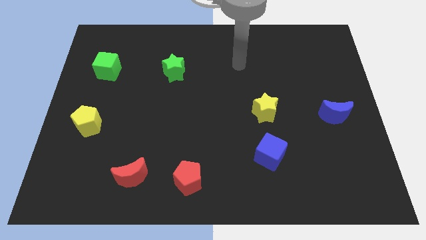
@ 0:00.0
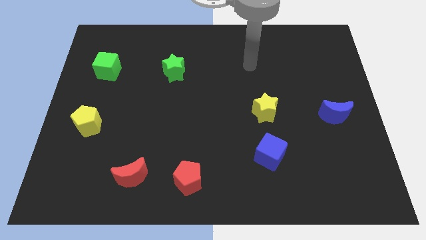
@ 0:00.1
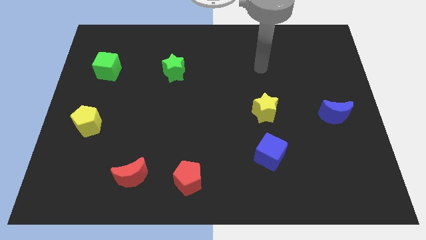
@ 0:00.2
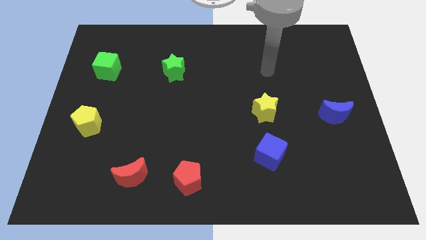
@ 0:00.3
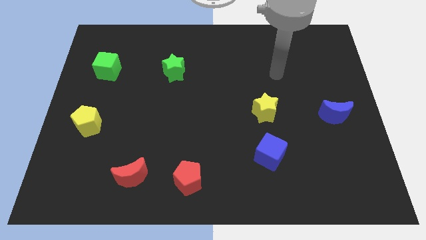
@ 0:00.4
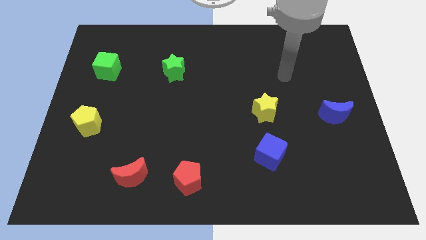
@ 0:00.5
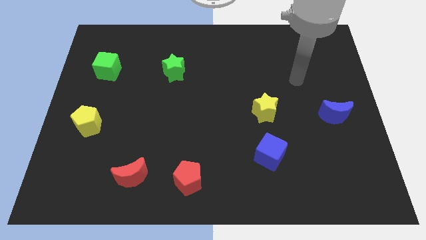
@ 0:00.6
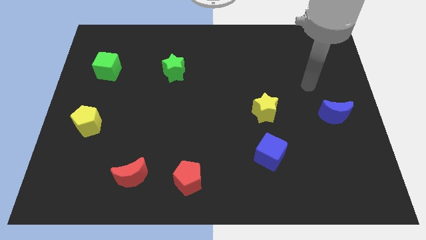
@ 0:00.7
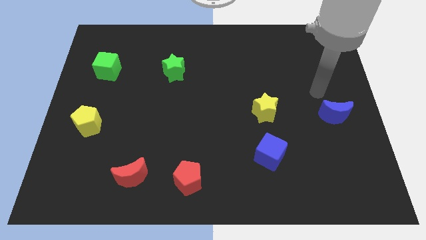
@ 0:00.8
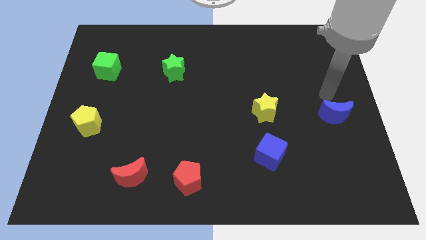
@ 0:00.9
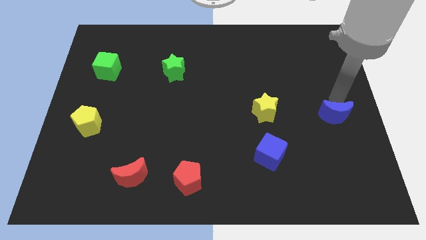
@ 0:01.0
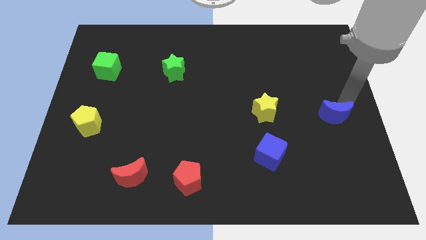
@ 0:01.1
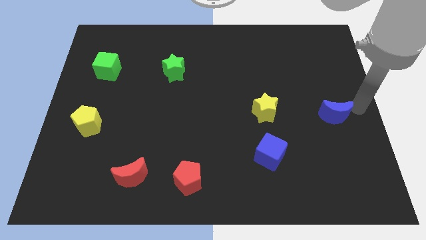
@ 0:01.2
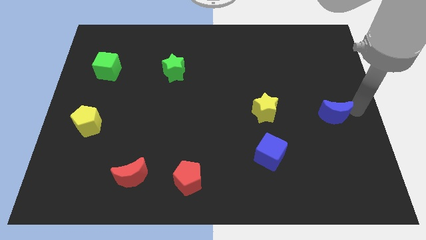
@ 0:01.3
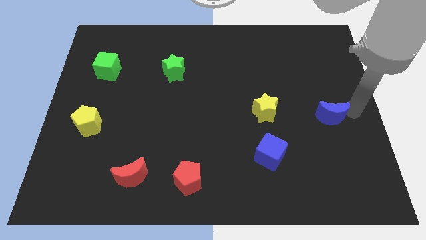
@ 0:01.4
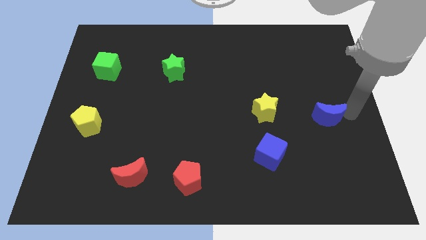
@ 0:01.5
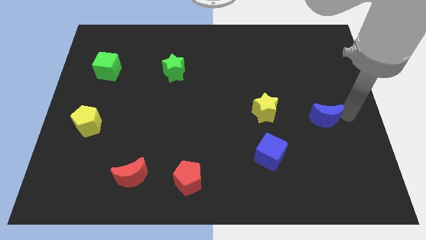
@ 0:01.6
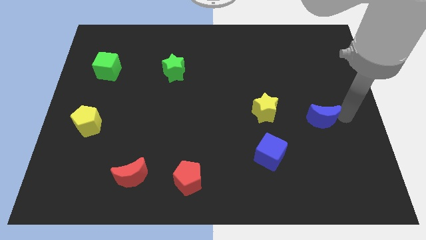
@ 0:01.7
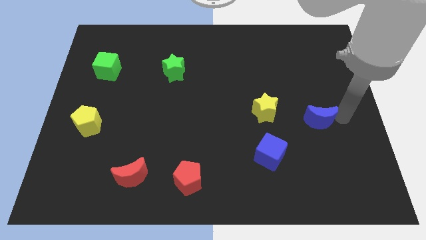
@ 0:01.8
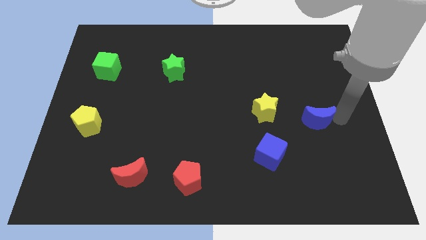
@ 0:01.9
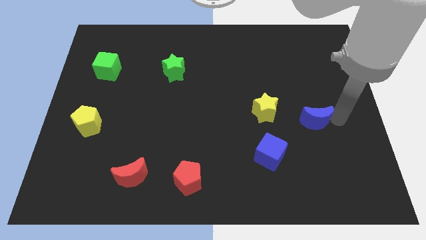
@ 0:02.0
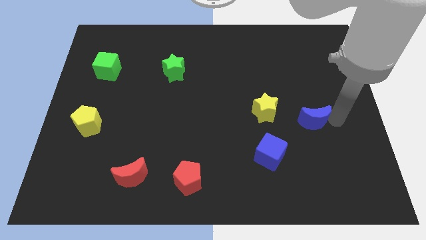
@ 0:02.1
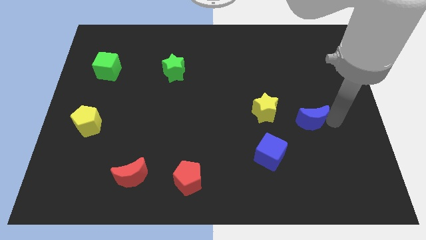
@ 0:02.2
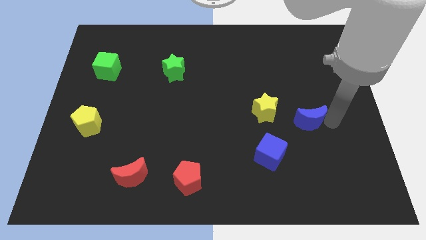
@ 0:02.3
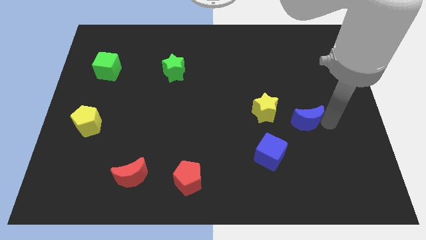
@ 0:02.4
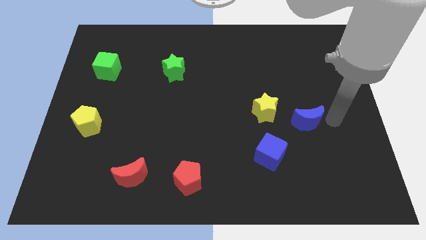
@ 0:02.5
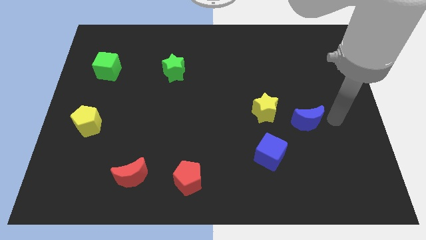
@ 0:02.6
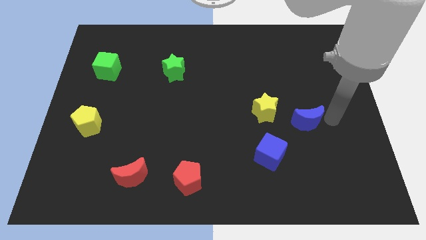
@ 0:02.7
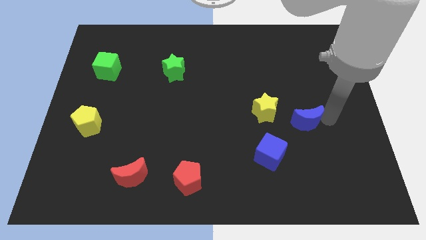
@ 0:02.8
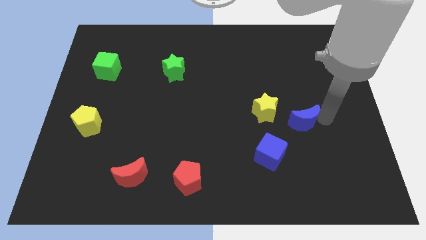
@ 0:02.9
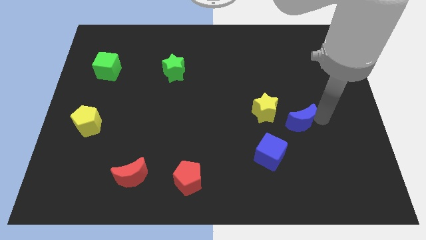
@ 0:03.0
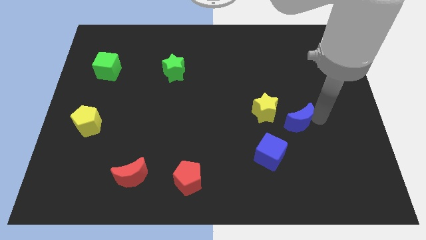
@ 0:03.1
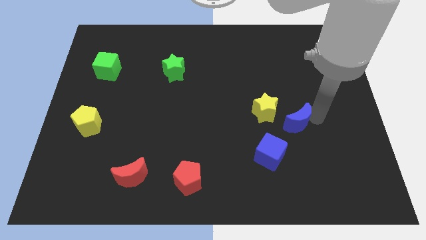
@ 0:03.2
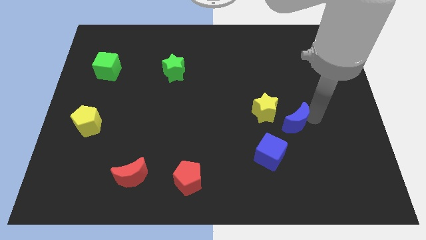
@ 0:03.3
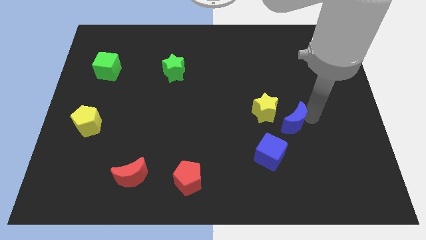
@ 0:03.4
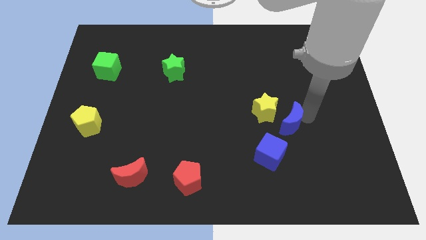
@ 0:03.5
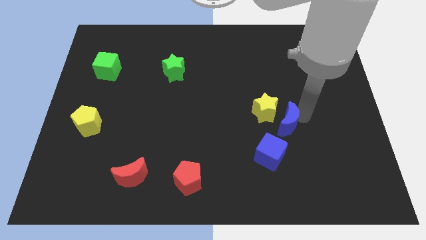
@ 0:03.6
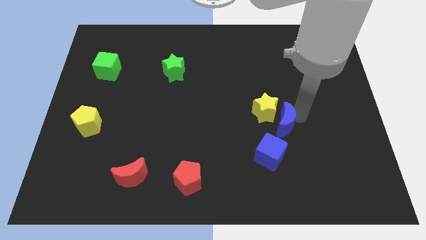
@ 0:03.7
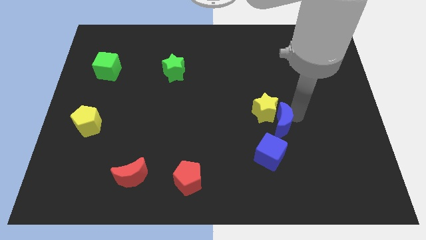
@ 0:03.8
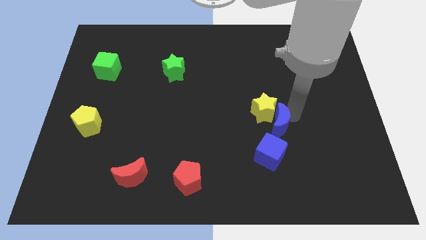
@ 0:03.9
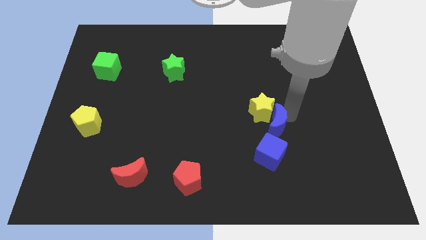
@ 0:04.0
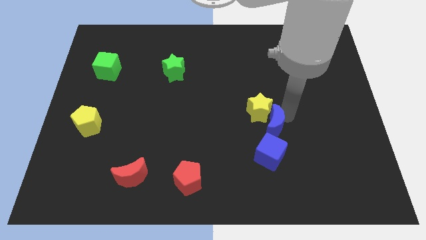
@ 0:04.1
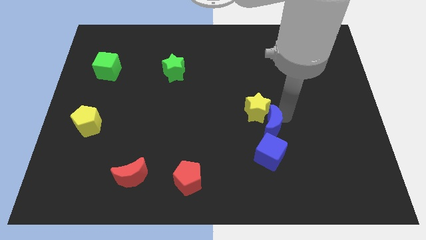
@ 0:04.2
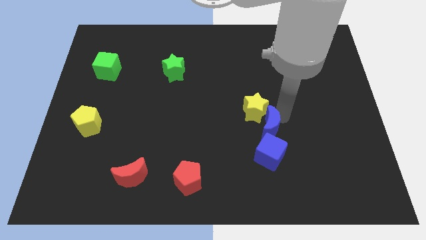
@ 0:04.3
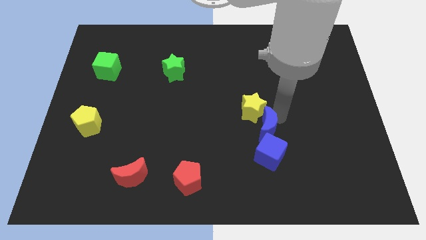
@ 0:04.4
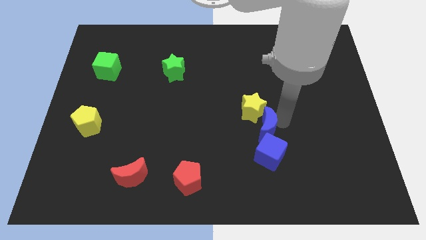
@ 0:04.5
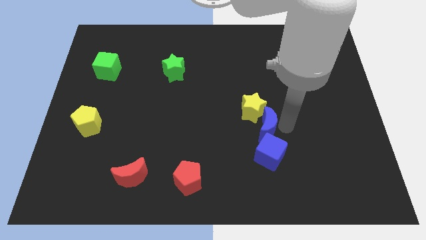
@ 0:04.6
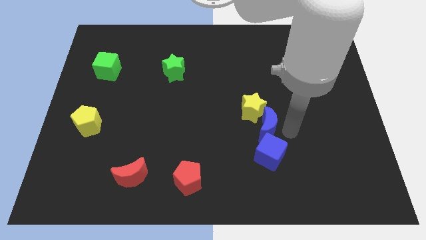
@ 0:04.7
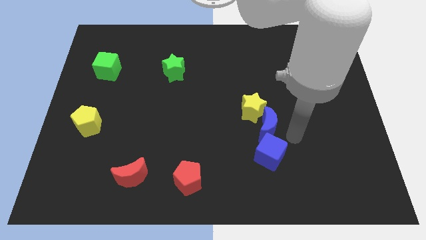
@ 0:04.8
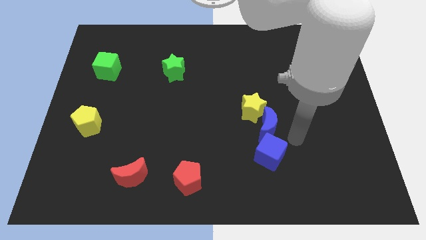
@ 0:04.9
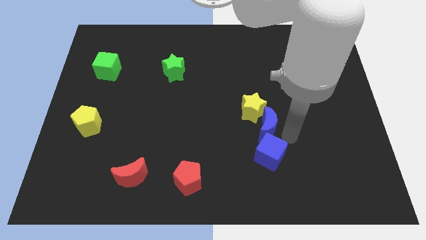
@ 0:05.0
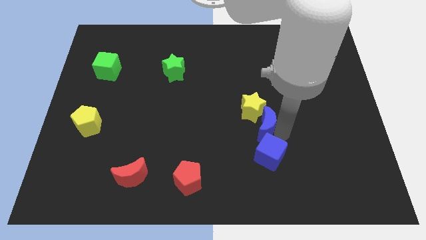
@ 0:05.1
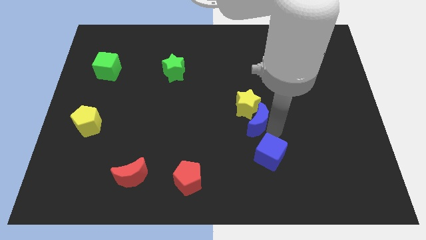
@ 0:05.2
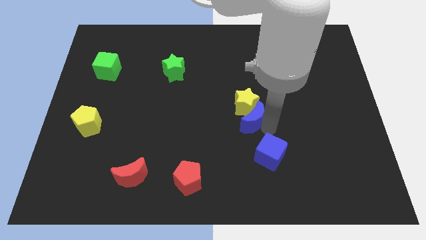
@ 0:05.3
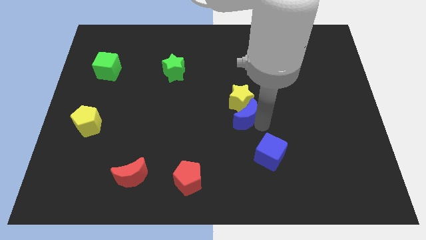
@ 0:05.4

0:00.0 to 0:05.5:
move the blue moon to the left

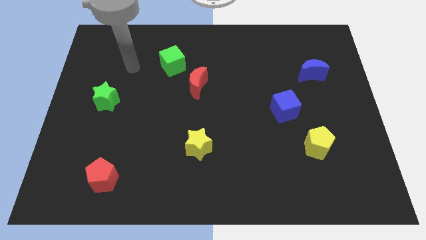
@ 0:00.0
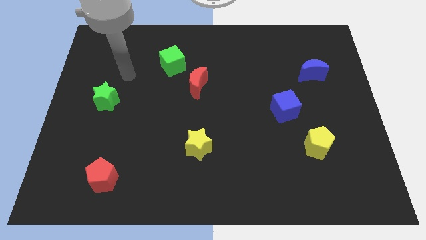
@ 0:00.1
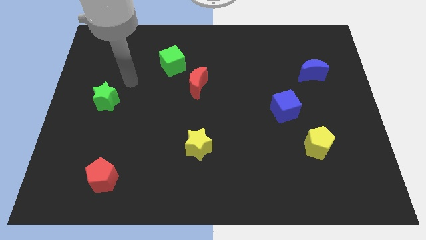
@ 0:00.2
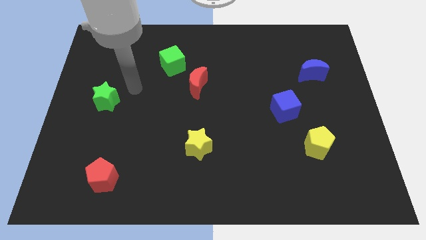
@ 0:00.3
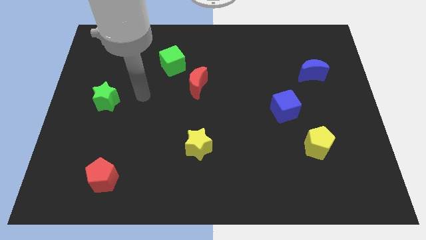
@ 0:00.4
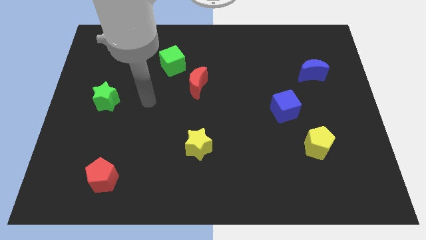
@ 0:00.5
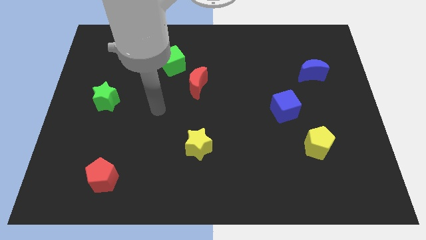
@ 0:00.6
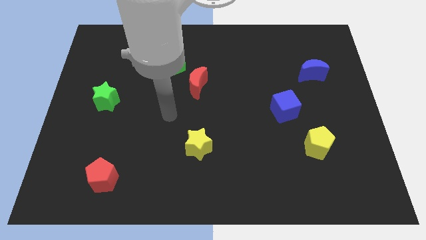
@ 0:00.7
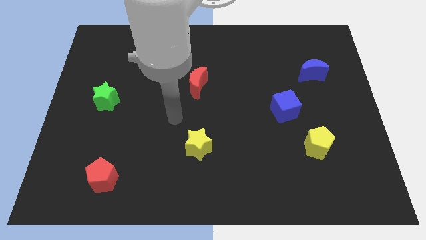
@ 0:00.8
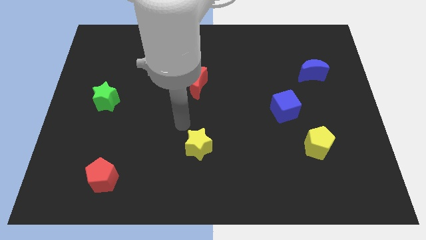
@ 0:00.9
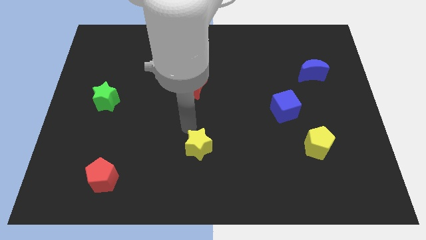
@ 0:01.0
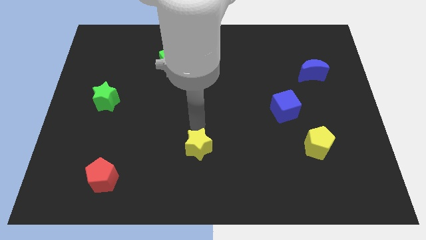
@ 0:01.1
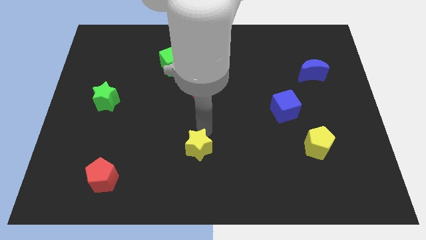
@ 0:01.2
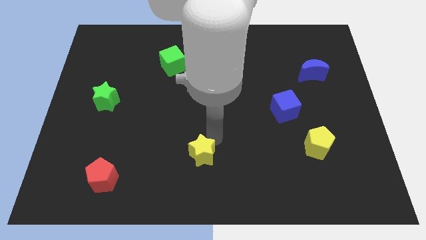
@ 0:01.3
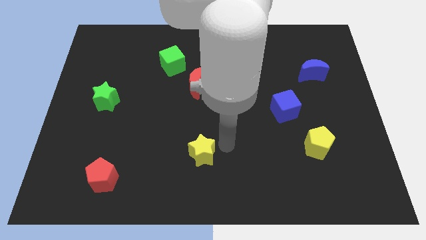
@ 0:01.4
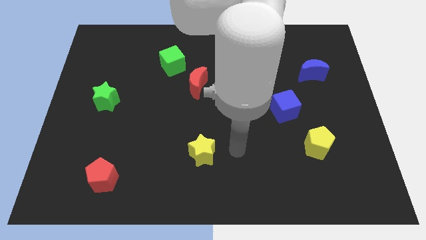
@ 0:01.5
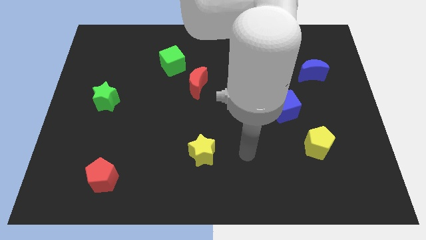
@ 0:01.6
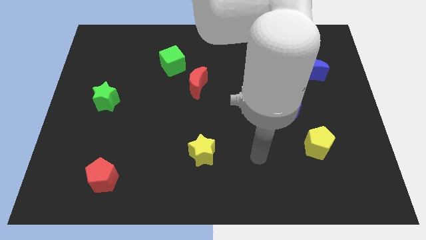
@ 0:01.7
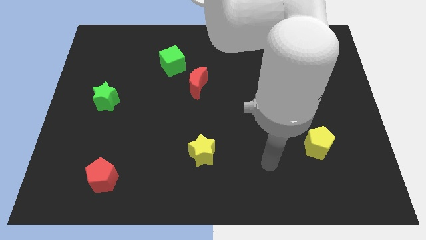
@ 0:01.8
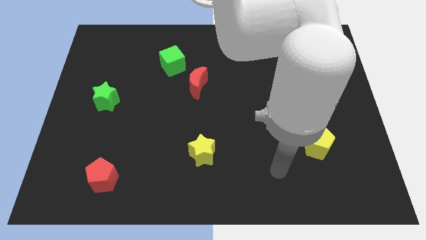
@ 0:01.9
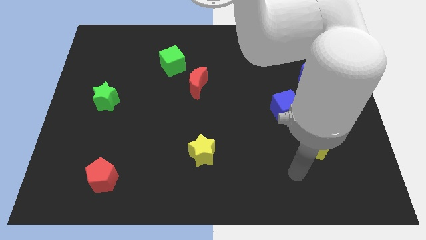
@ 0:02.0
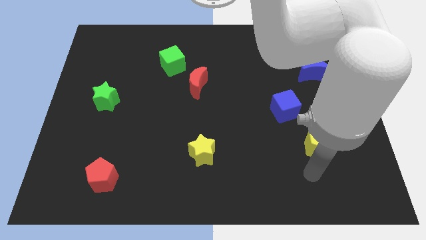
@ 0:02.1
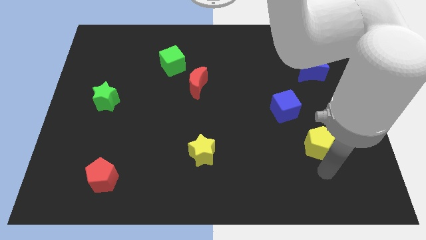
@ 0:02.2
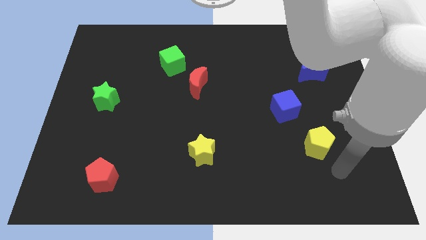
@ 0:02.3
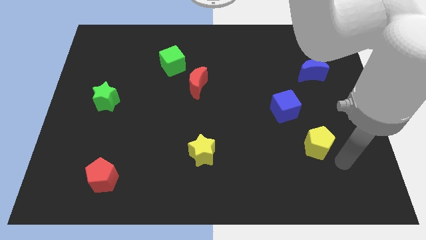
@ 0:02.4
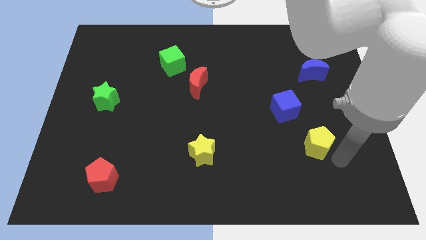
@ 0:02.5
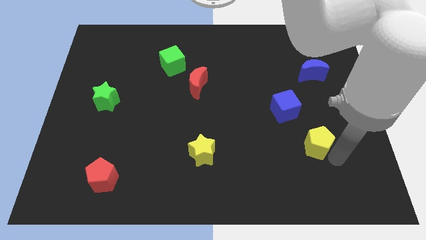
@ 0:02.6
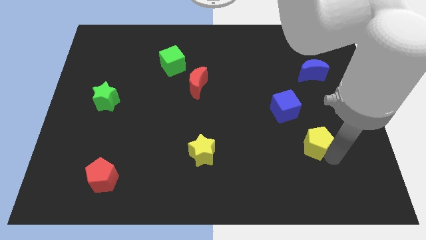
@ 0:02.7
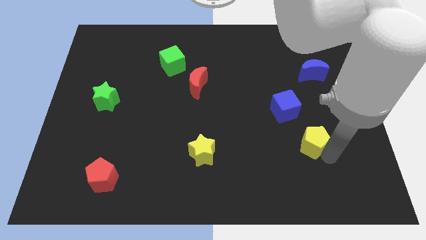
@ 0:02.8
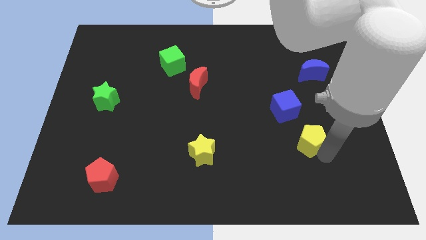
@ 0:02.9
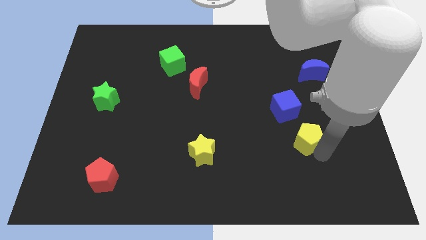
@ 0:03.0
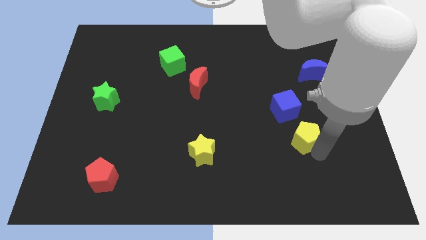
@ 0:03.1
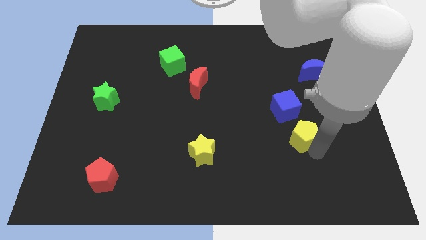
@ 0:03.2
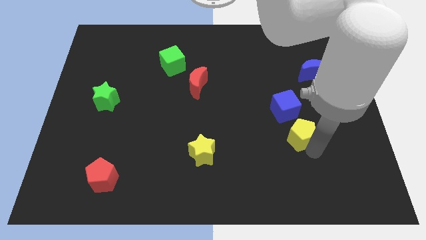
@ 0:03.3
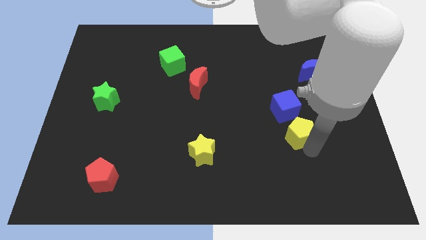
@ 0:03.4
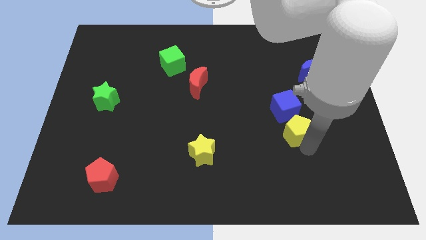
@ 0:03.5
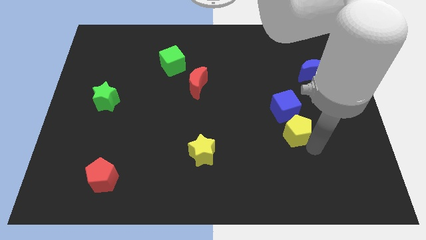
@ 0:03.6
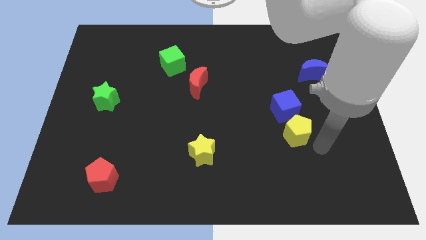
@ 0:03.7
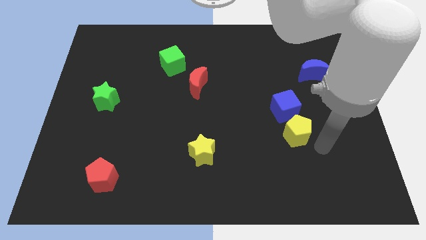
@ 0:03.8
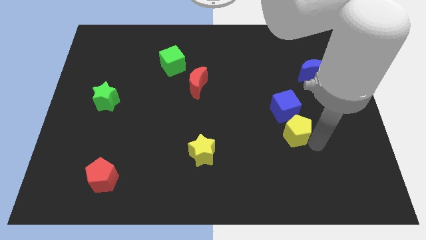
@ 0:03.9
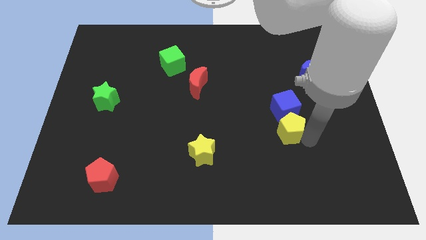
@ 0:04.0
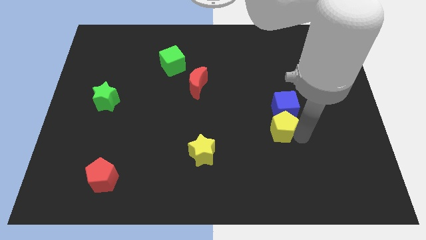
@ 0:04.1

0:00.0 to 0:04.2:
push the yellow pentagon somewhat diagonally upwards and to the left
